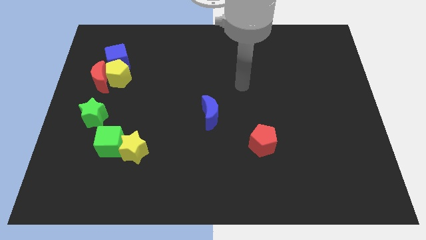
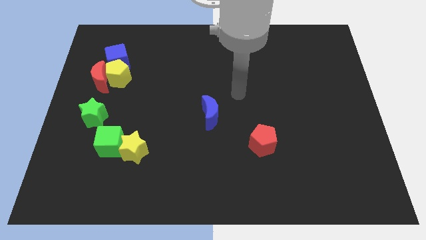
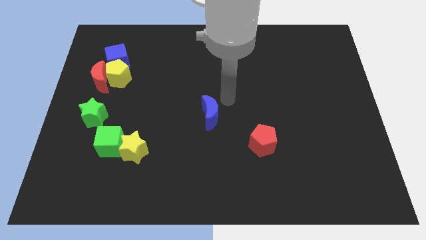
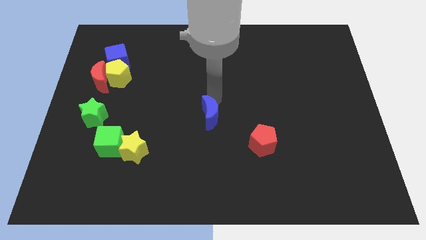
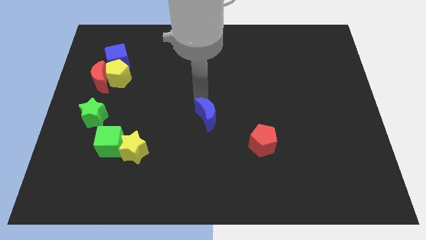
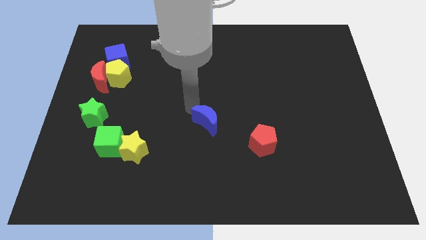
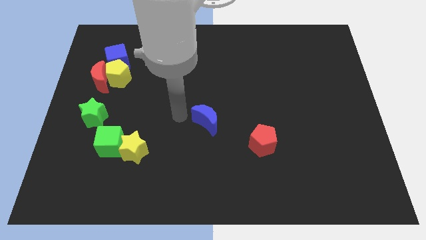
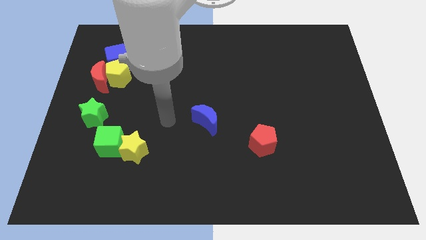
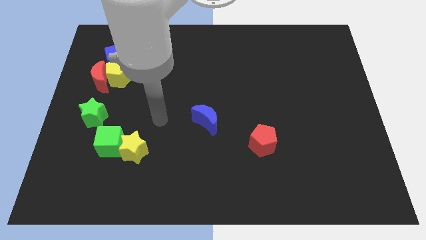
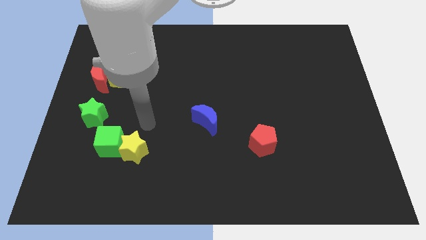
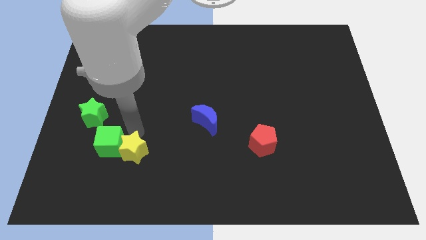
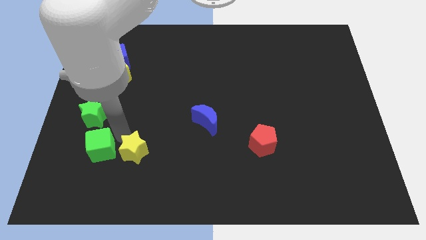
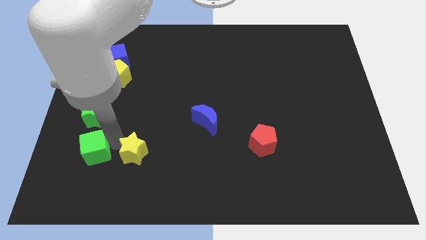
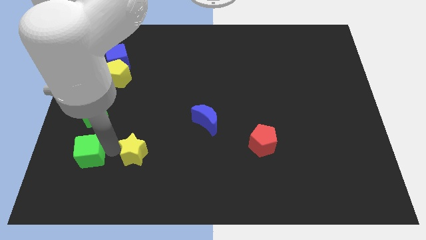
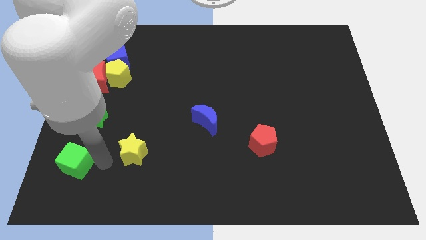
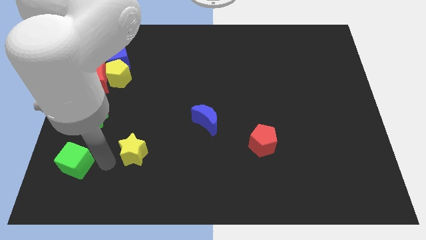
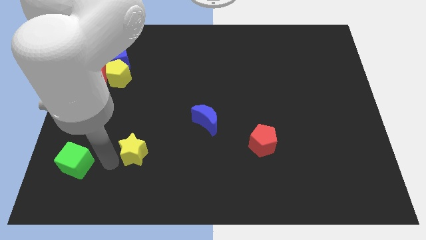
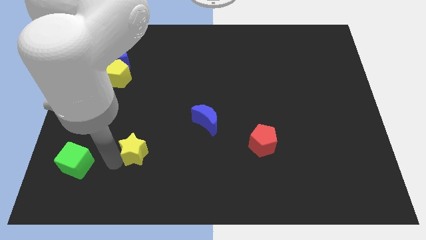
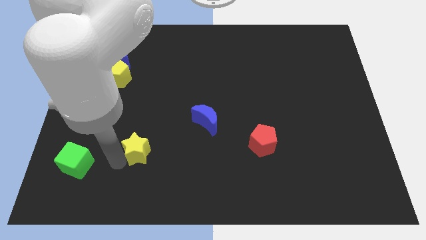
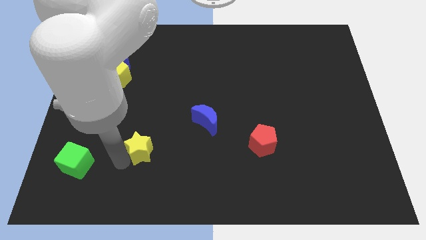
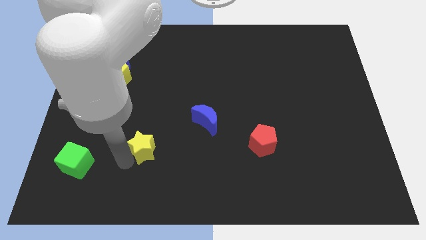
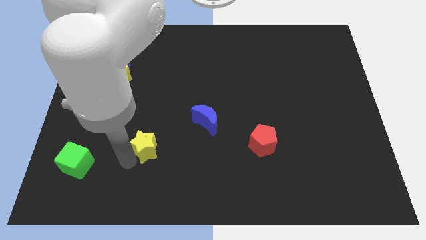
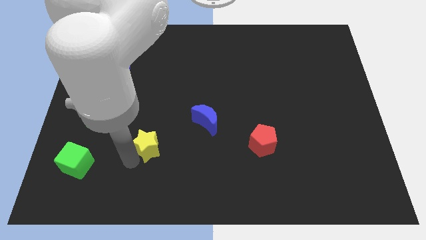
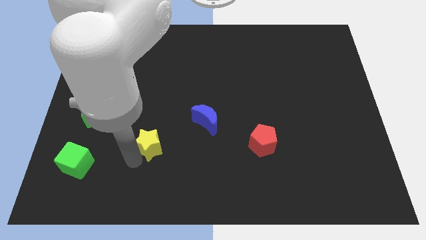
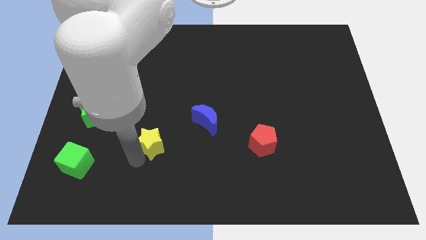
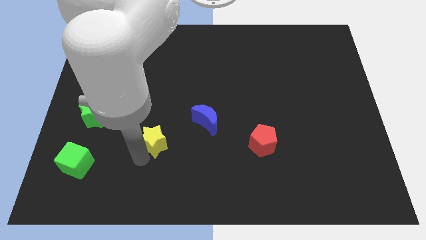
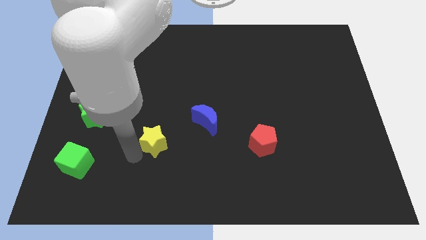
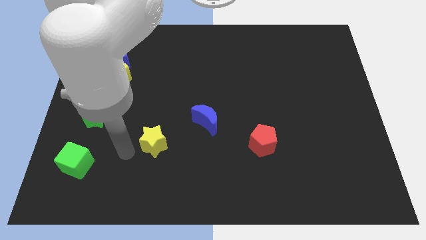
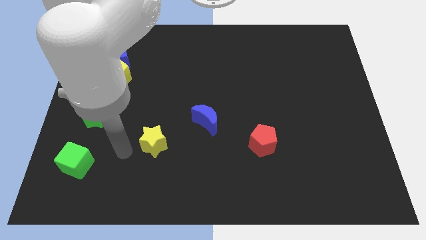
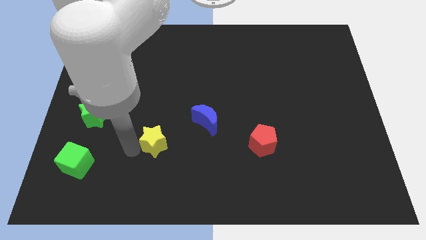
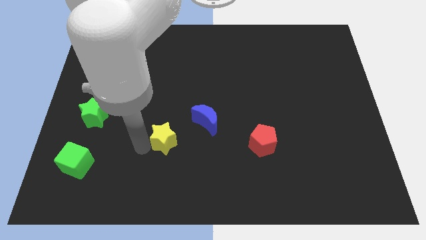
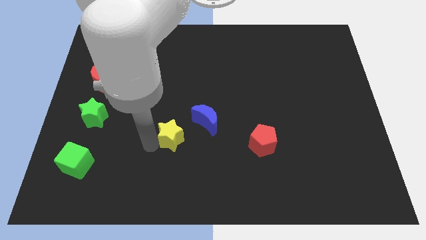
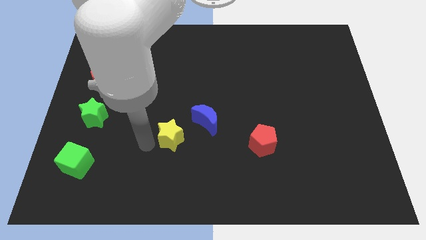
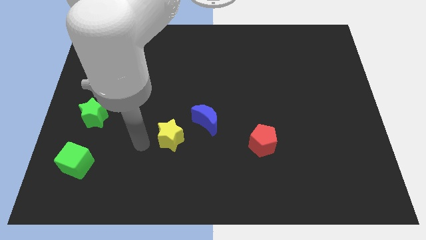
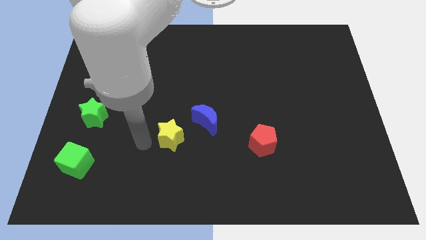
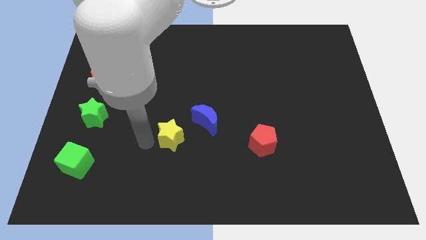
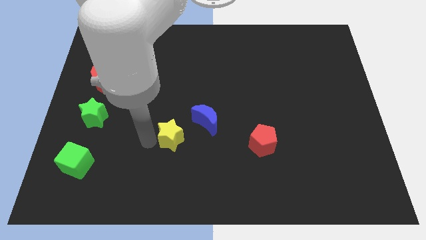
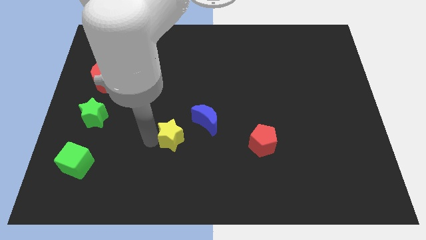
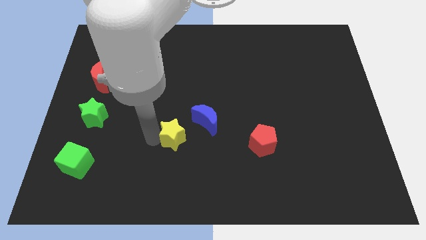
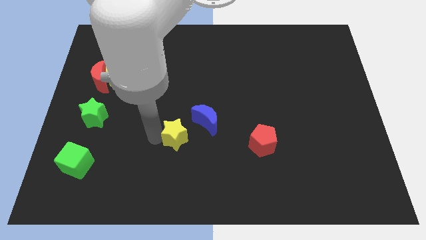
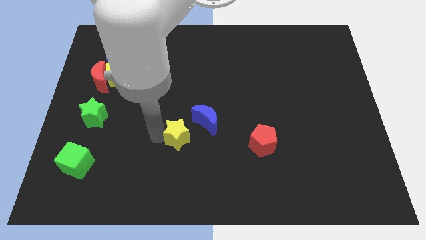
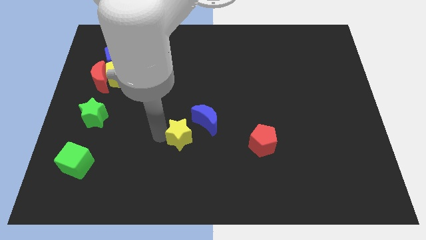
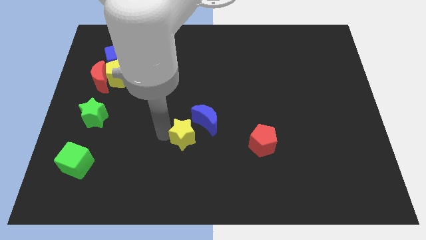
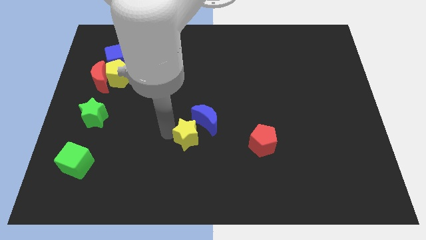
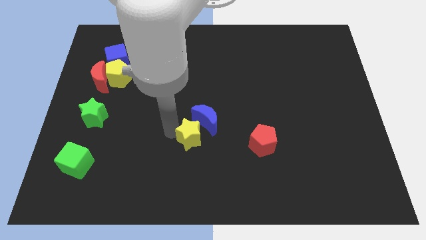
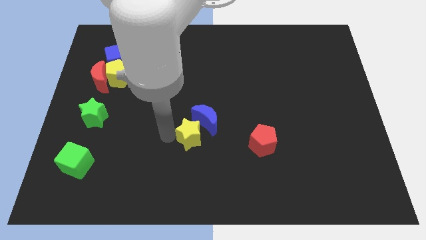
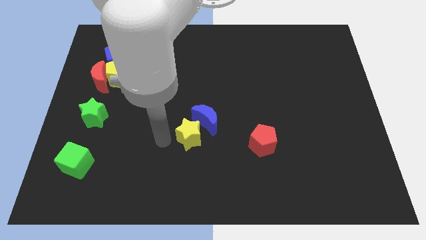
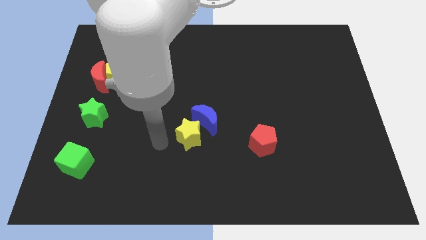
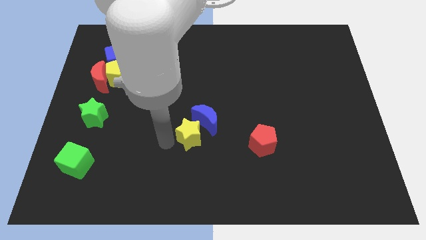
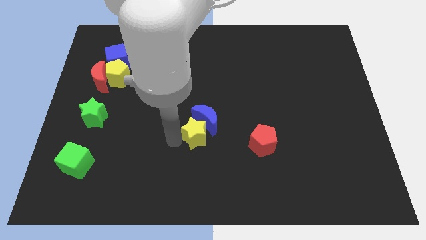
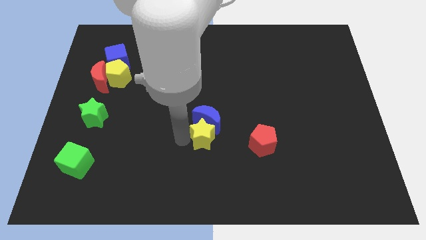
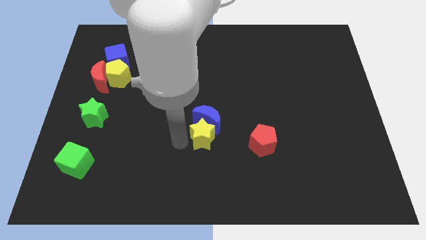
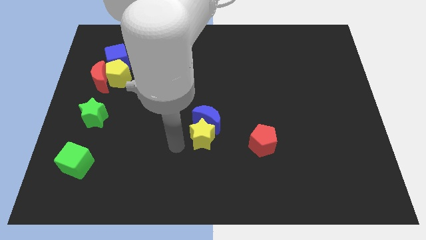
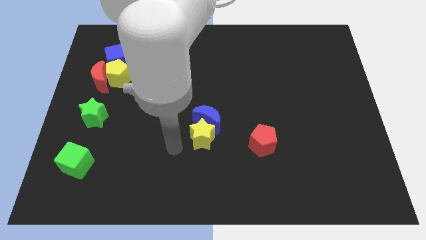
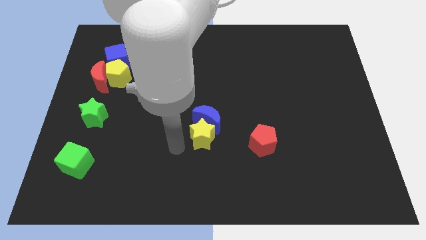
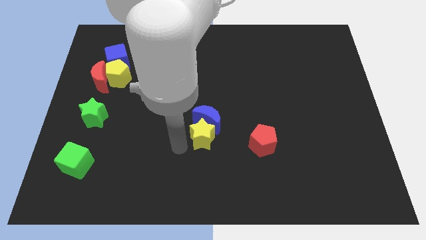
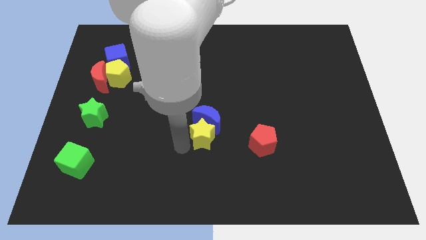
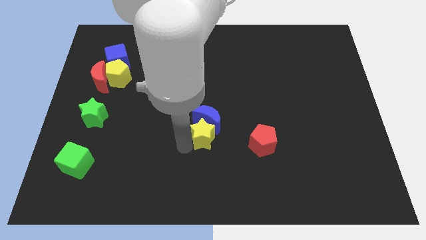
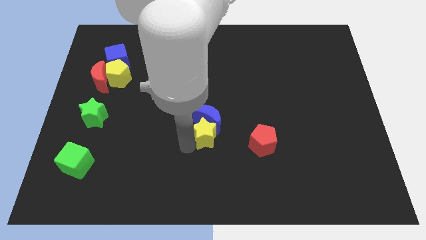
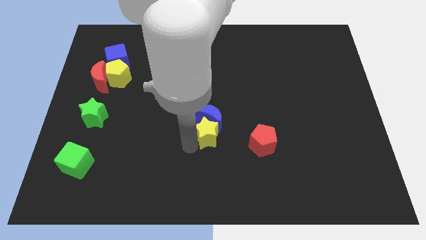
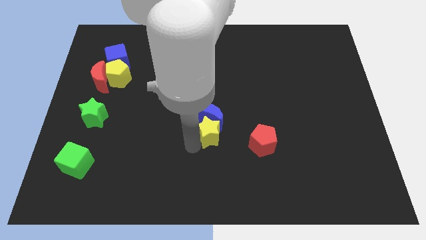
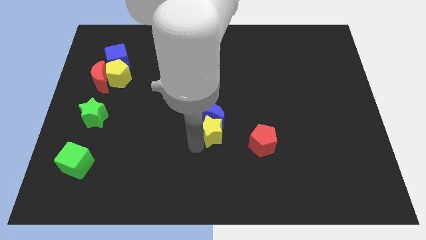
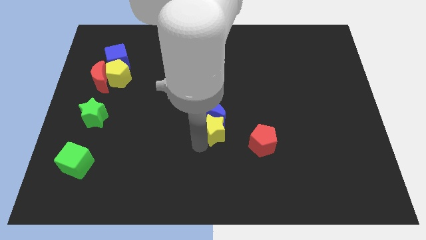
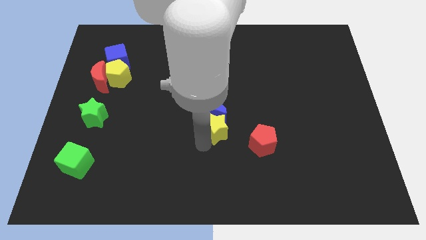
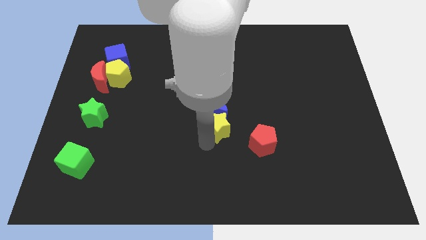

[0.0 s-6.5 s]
slide the yellow star diagonally up and to the left of the red pentagon
